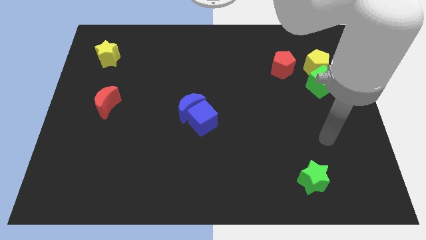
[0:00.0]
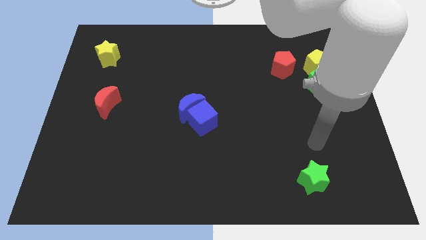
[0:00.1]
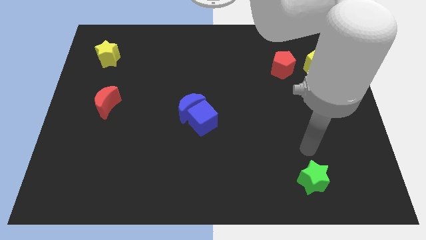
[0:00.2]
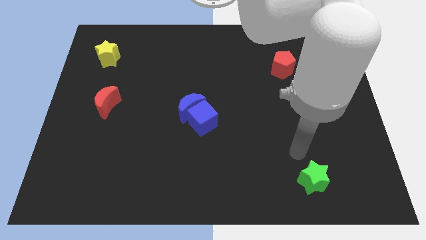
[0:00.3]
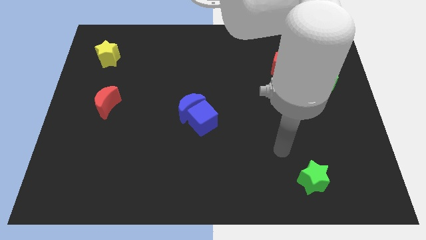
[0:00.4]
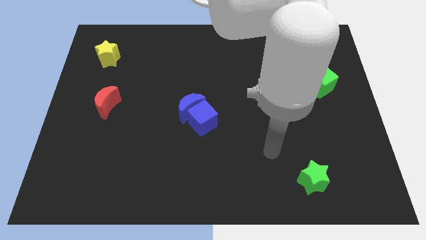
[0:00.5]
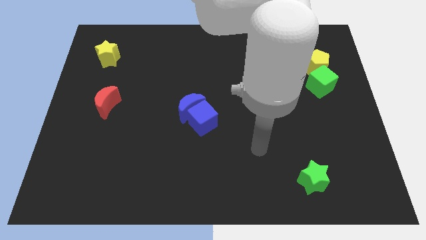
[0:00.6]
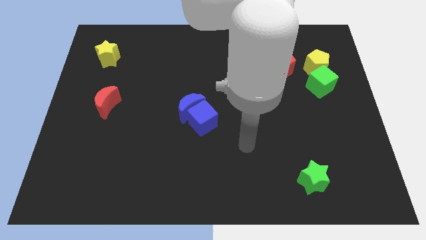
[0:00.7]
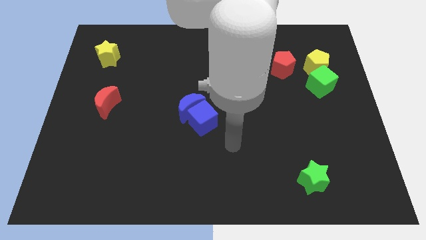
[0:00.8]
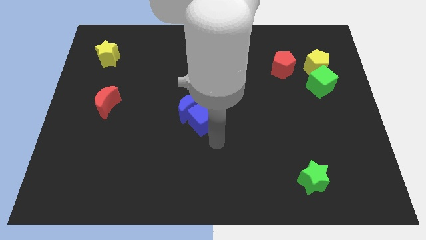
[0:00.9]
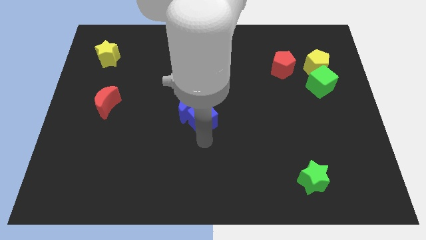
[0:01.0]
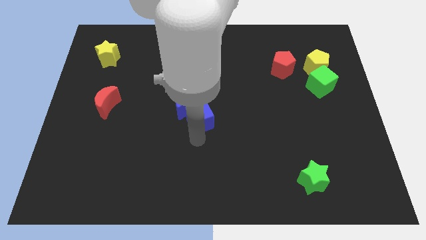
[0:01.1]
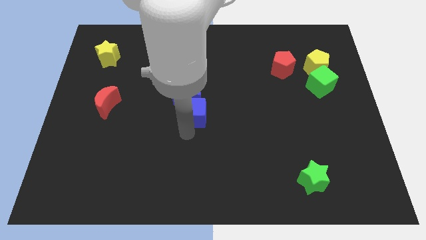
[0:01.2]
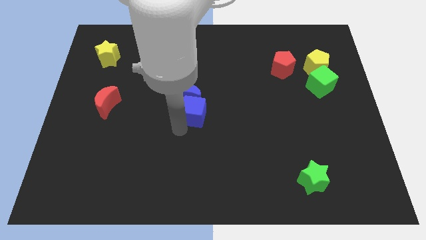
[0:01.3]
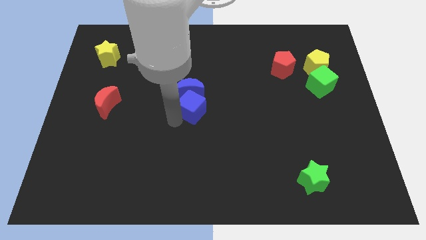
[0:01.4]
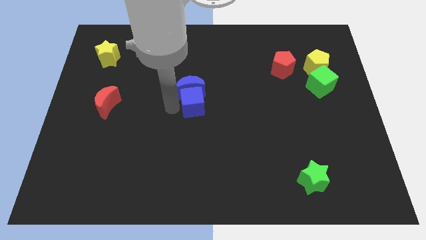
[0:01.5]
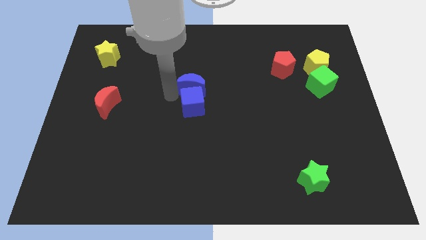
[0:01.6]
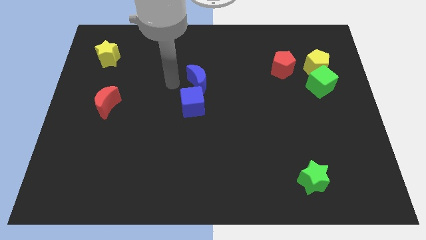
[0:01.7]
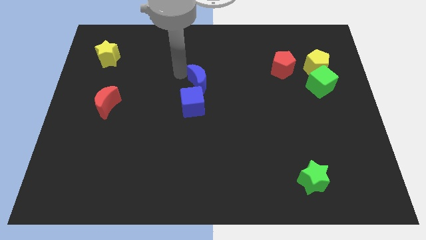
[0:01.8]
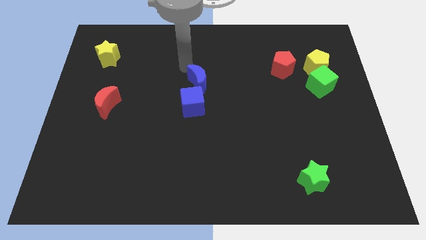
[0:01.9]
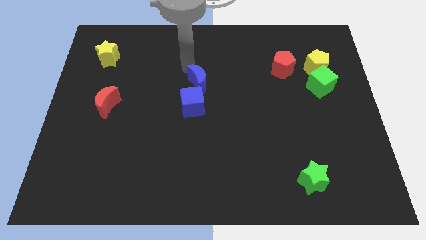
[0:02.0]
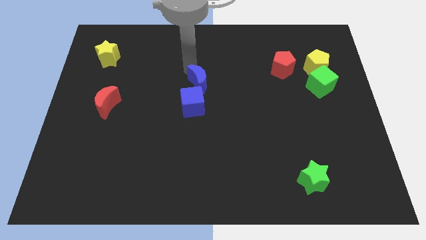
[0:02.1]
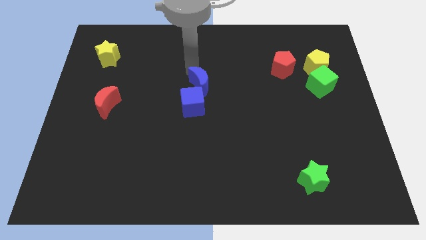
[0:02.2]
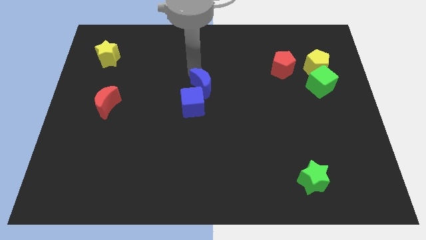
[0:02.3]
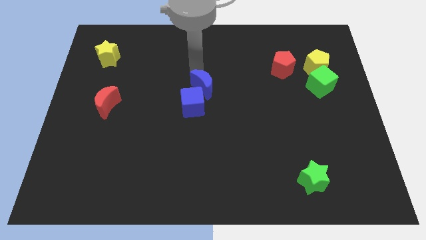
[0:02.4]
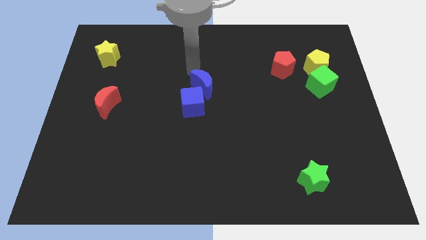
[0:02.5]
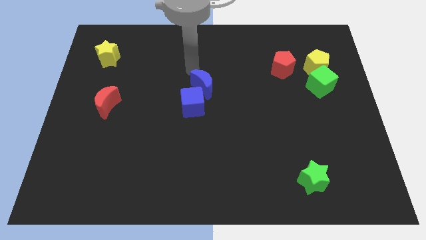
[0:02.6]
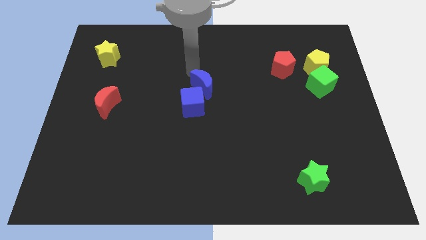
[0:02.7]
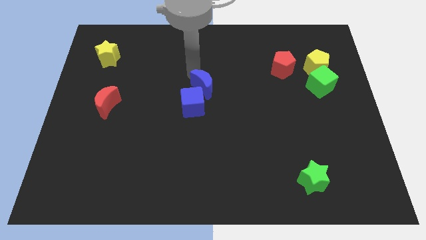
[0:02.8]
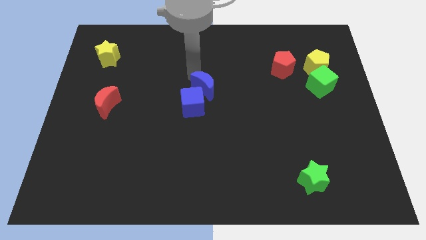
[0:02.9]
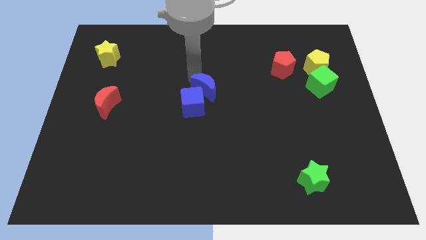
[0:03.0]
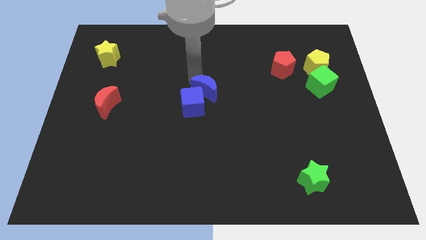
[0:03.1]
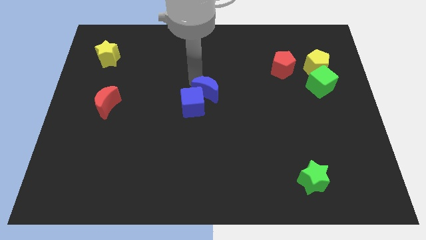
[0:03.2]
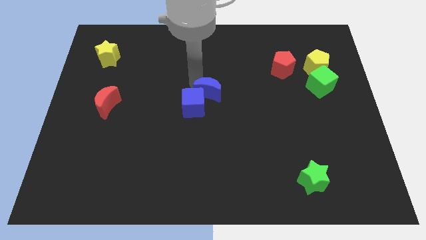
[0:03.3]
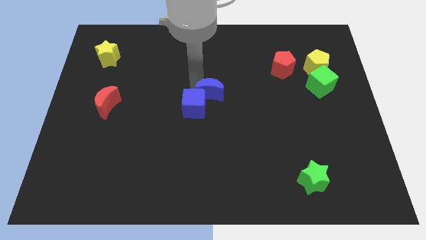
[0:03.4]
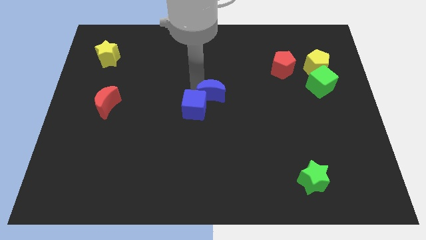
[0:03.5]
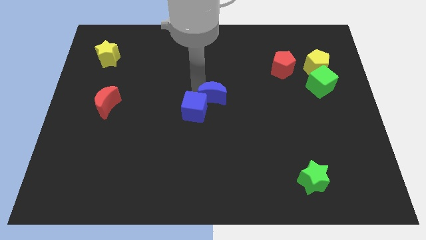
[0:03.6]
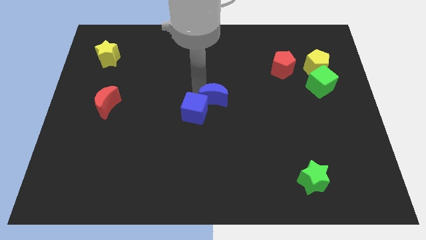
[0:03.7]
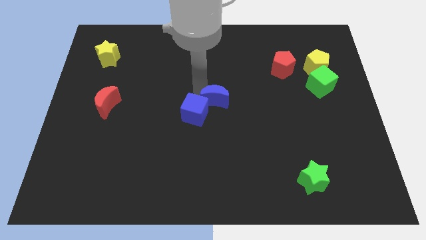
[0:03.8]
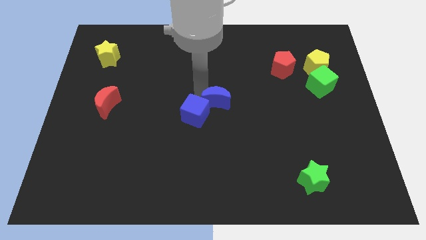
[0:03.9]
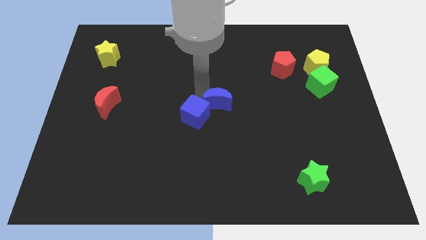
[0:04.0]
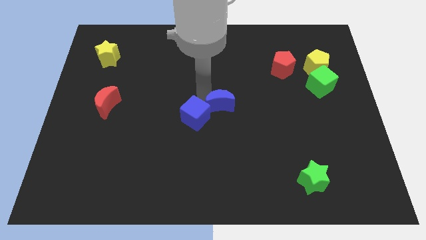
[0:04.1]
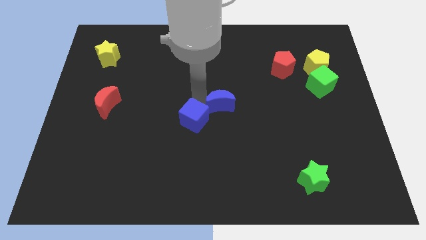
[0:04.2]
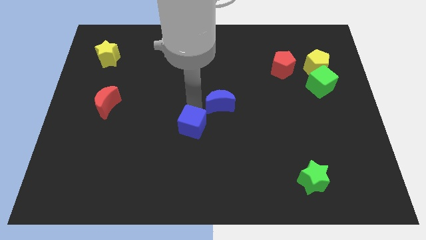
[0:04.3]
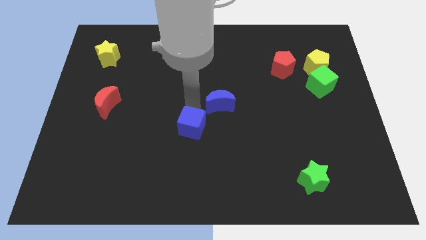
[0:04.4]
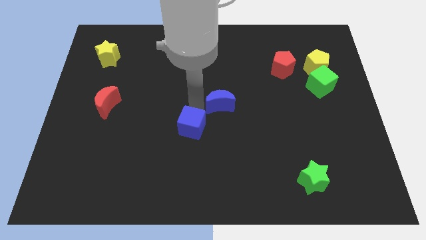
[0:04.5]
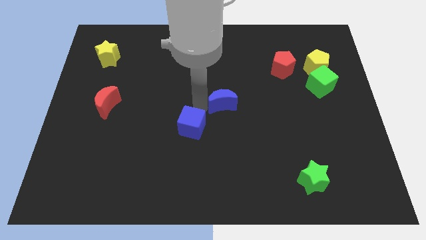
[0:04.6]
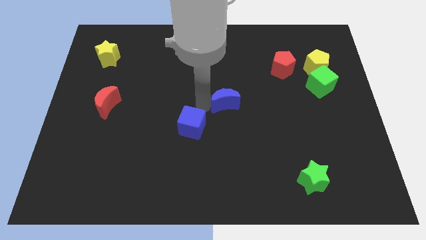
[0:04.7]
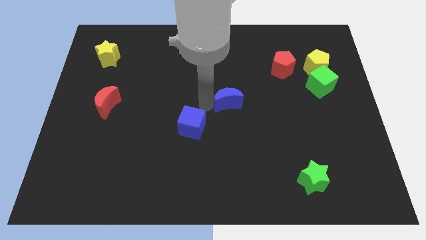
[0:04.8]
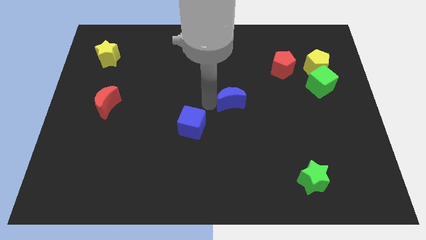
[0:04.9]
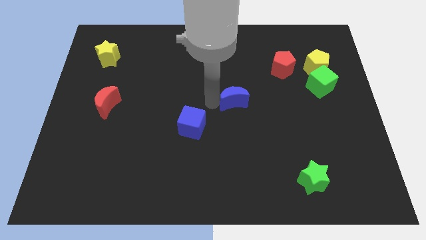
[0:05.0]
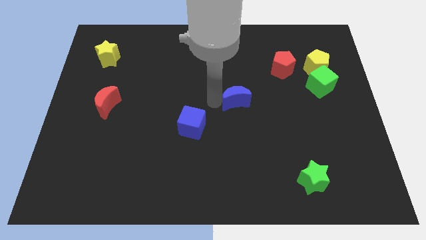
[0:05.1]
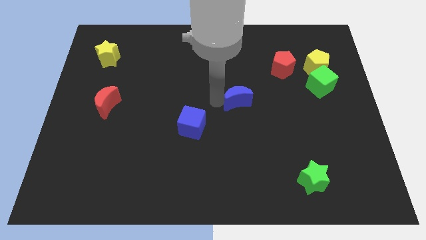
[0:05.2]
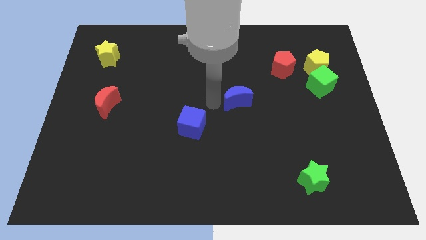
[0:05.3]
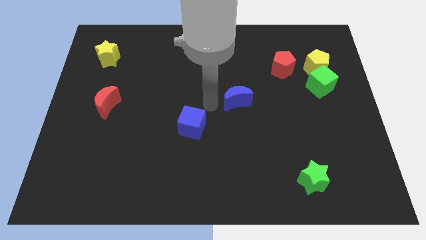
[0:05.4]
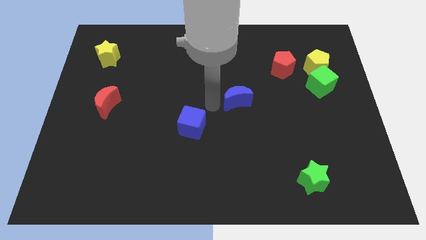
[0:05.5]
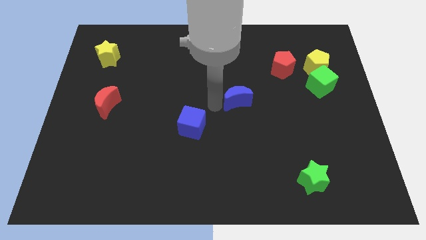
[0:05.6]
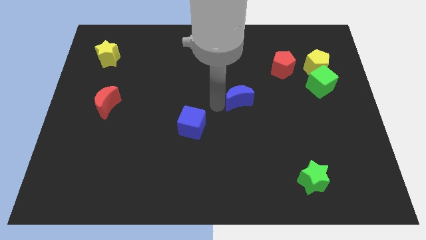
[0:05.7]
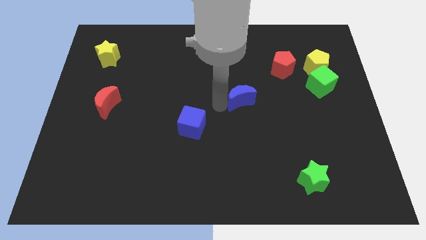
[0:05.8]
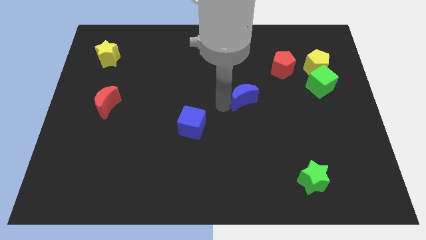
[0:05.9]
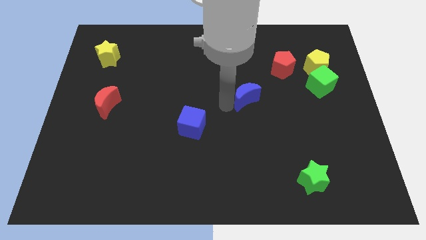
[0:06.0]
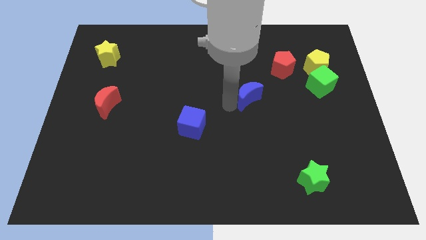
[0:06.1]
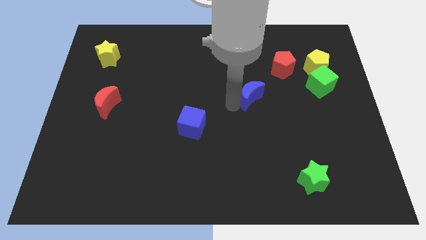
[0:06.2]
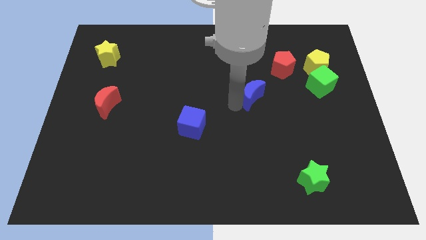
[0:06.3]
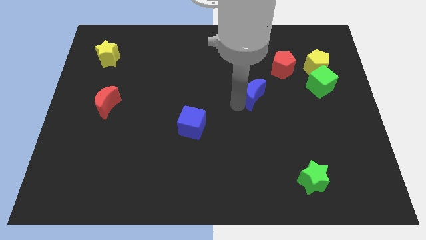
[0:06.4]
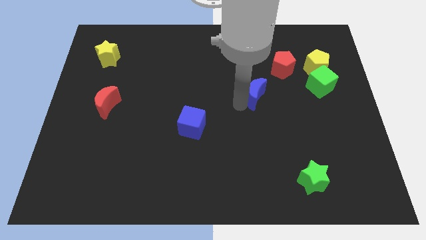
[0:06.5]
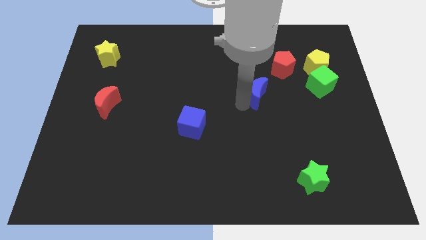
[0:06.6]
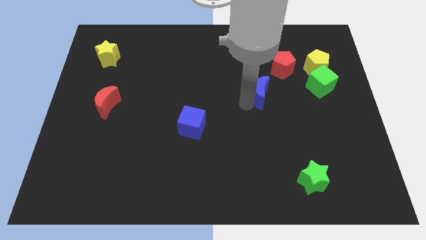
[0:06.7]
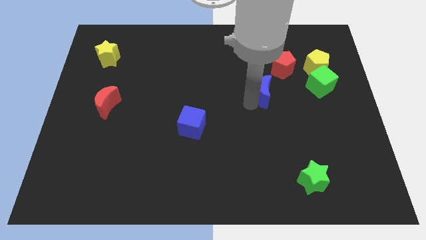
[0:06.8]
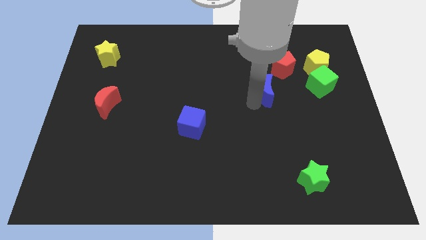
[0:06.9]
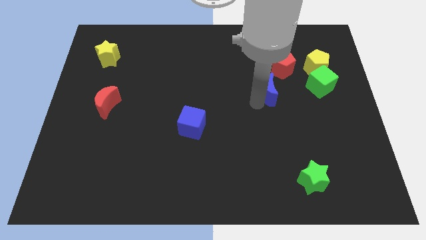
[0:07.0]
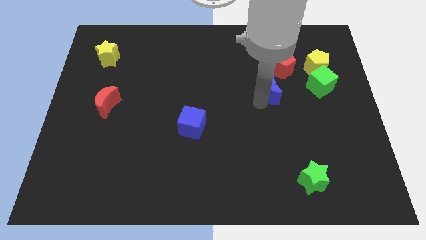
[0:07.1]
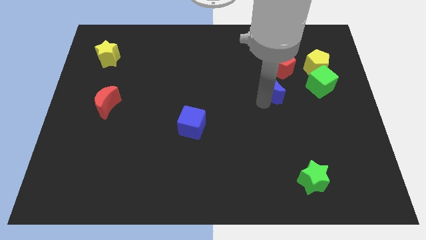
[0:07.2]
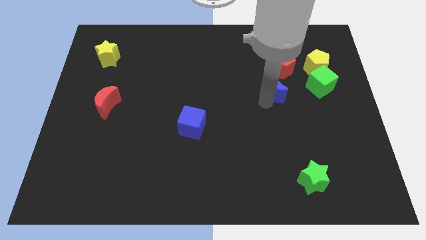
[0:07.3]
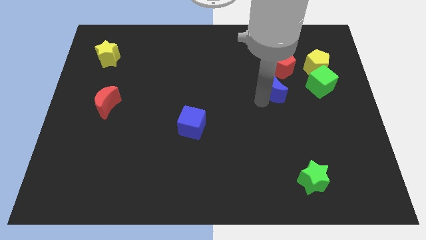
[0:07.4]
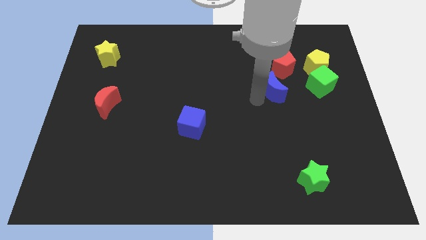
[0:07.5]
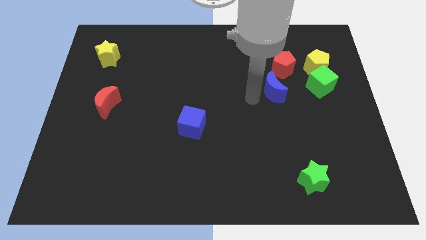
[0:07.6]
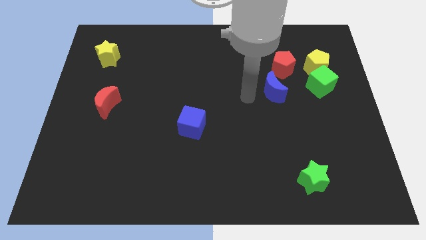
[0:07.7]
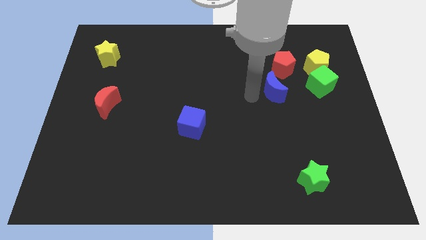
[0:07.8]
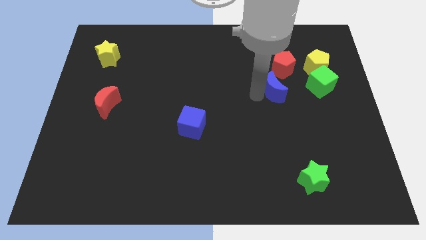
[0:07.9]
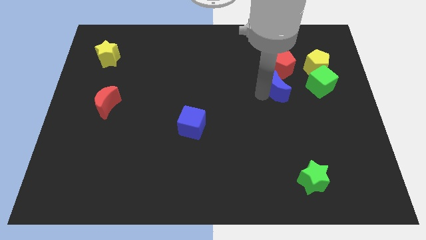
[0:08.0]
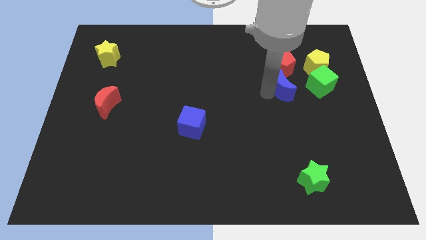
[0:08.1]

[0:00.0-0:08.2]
put the blue moon to the bottom left side of the yellow pentagon
